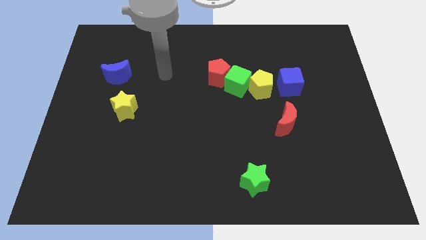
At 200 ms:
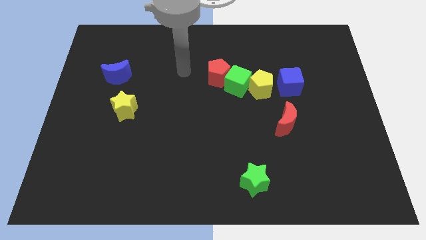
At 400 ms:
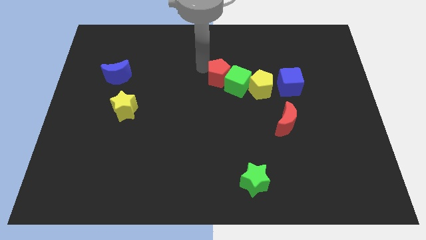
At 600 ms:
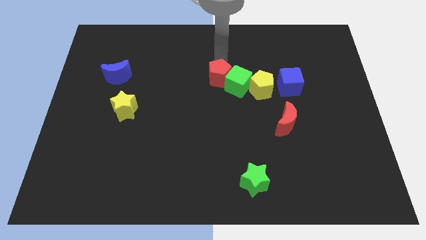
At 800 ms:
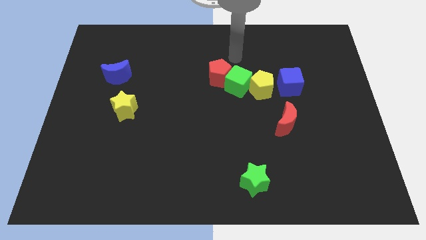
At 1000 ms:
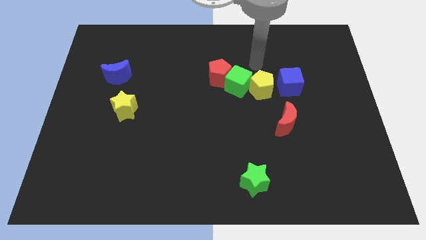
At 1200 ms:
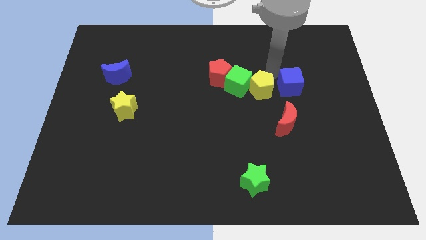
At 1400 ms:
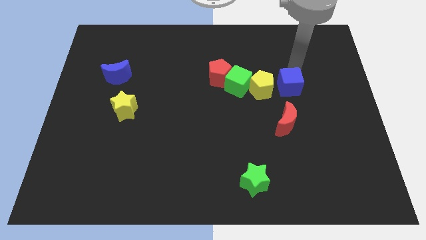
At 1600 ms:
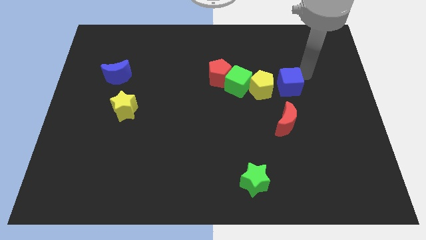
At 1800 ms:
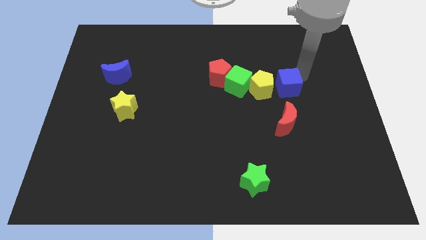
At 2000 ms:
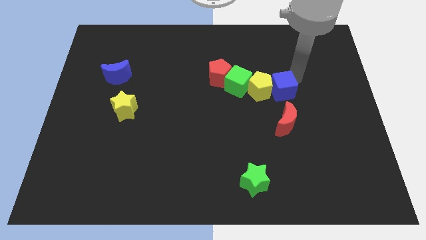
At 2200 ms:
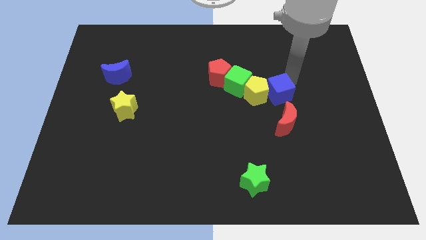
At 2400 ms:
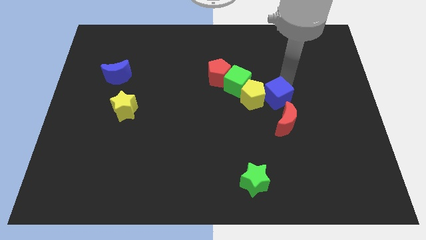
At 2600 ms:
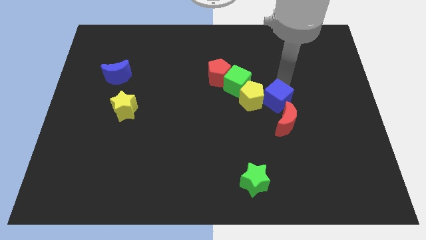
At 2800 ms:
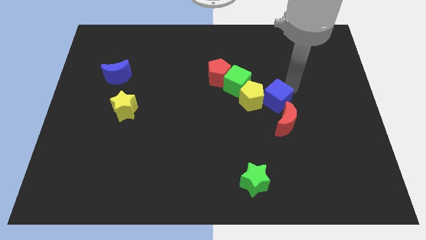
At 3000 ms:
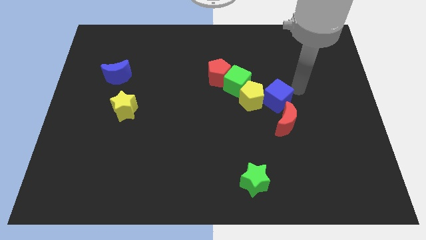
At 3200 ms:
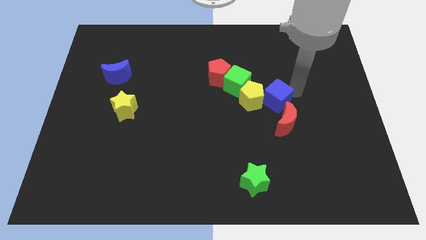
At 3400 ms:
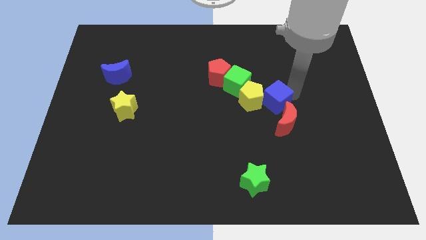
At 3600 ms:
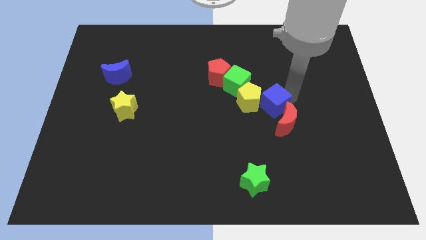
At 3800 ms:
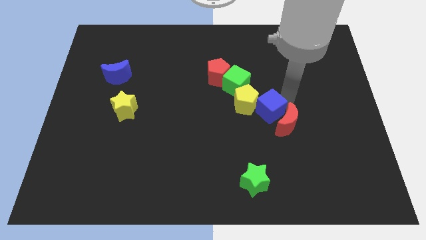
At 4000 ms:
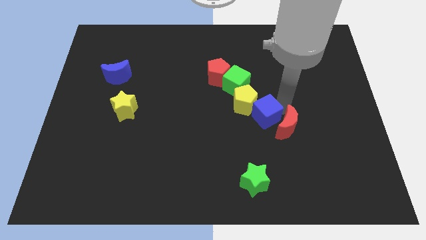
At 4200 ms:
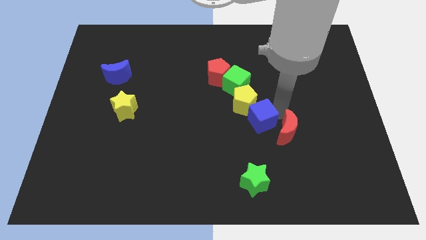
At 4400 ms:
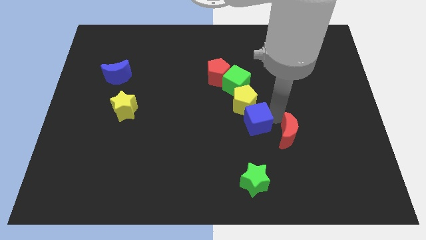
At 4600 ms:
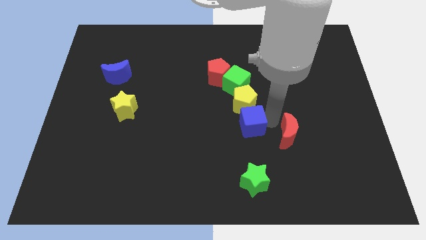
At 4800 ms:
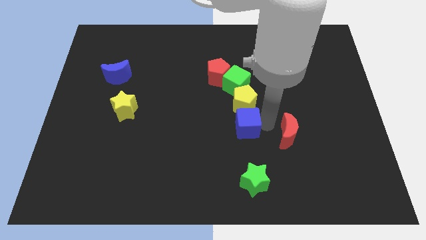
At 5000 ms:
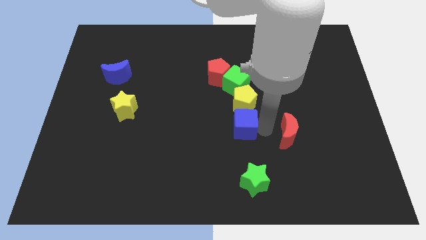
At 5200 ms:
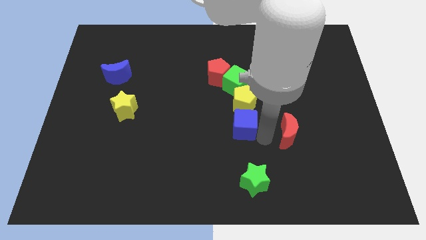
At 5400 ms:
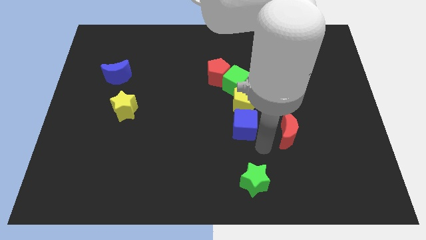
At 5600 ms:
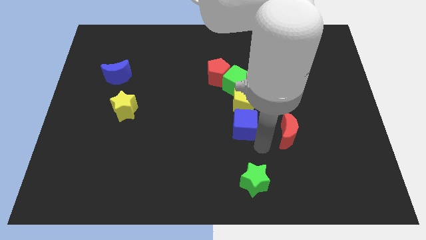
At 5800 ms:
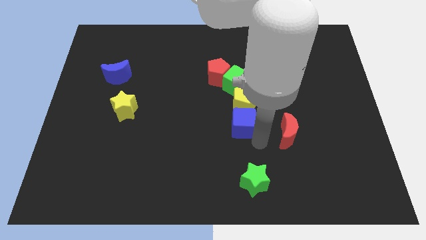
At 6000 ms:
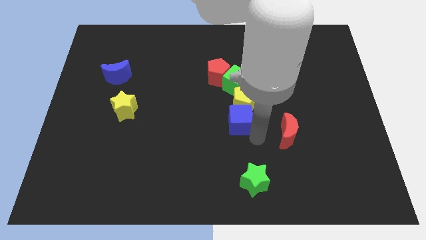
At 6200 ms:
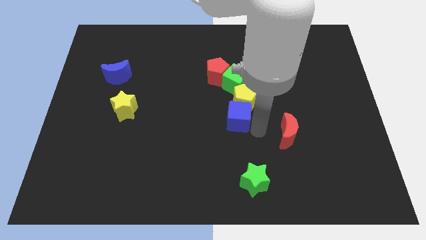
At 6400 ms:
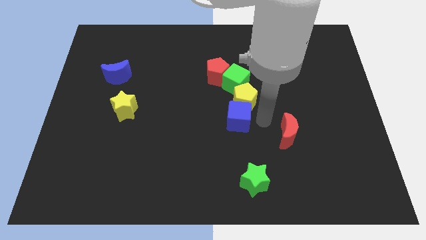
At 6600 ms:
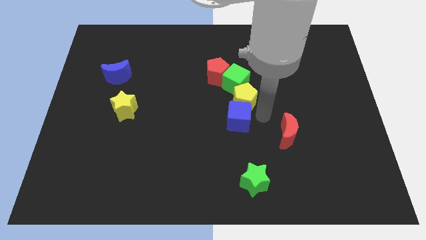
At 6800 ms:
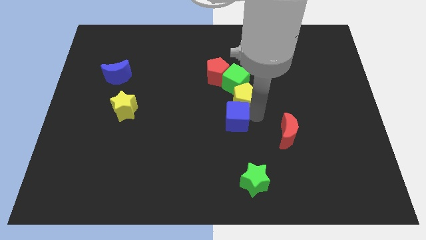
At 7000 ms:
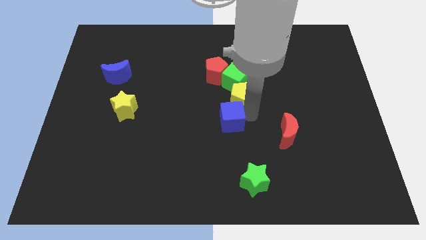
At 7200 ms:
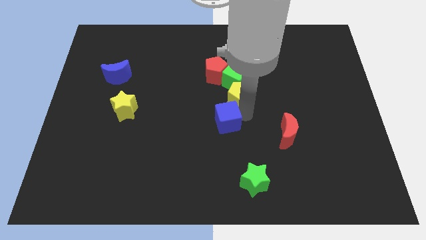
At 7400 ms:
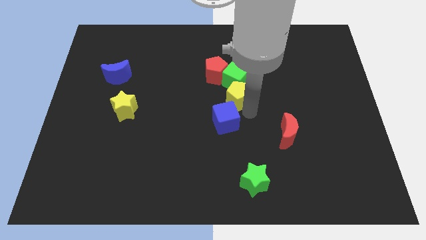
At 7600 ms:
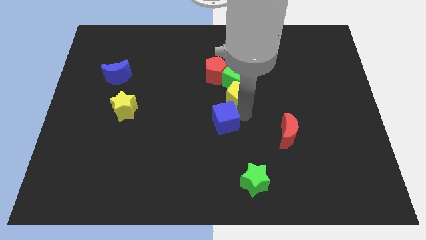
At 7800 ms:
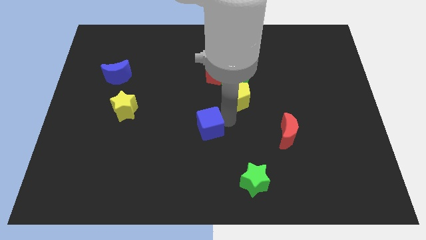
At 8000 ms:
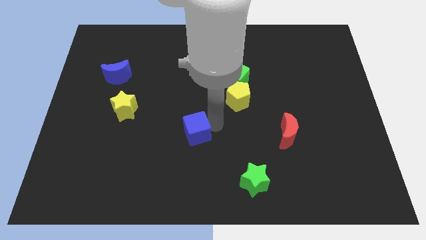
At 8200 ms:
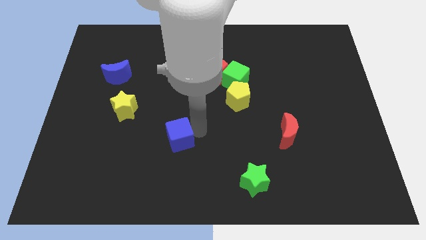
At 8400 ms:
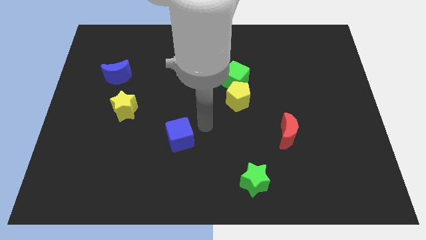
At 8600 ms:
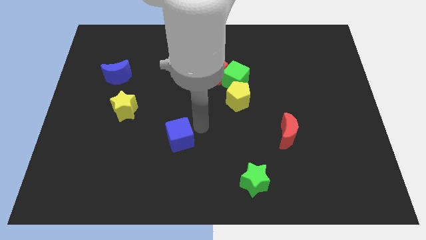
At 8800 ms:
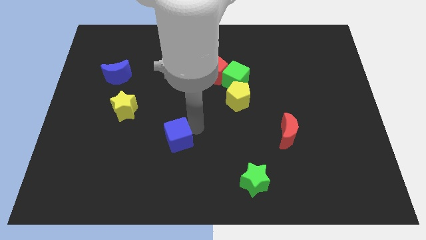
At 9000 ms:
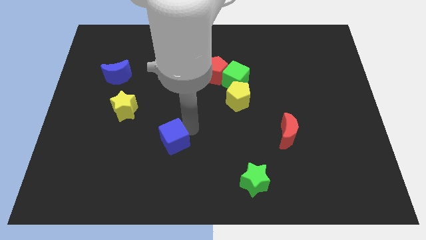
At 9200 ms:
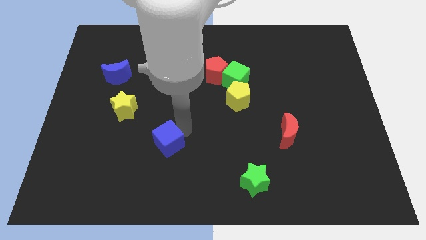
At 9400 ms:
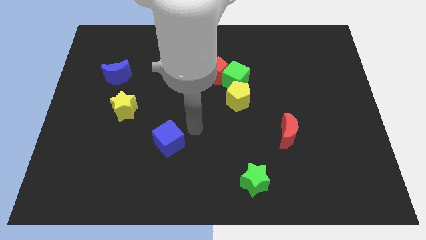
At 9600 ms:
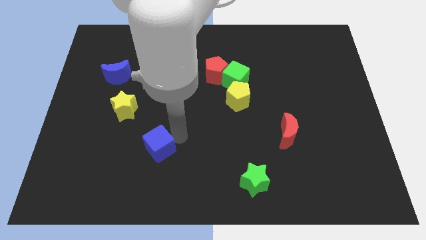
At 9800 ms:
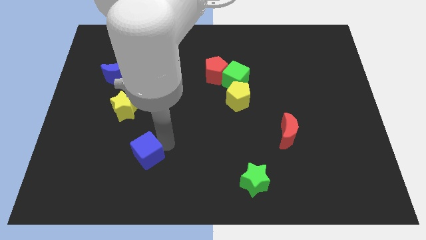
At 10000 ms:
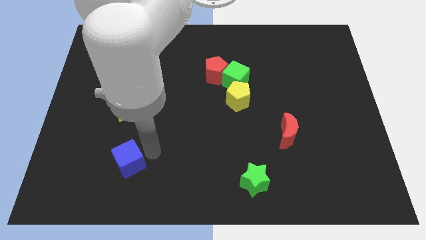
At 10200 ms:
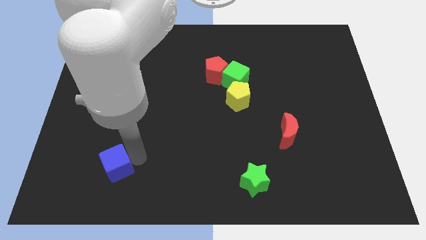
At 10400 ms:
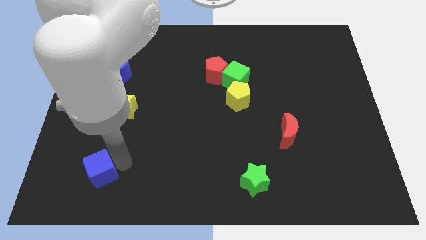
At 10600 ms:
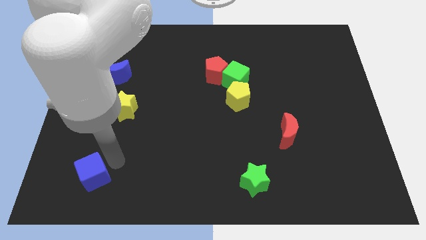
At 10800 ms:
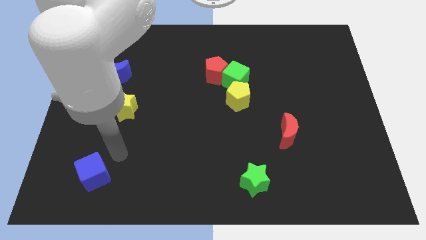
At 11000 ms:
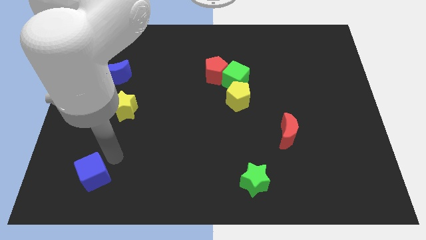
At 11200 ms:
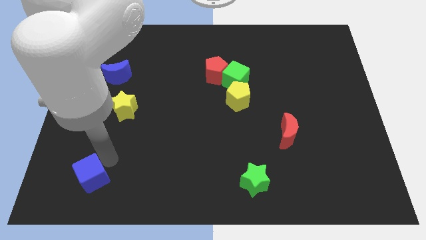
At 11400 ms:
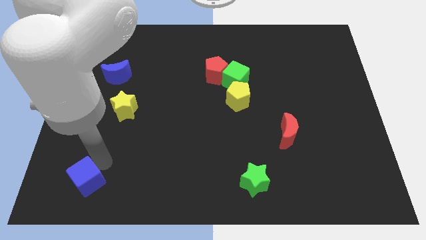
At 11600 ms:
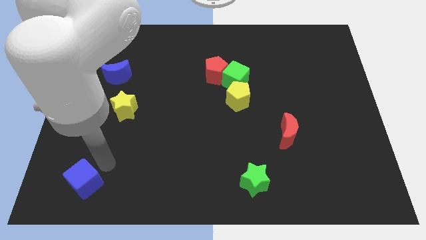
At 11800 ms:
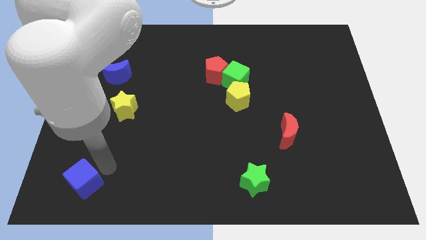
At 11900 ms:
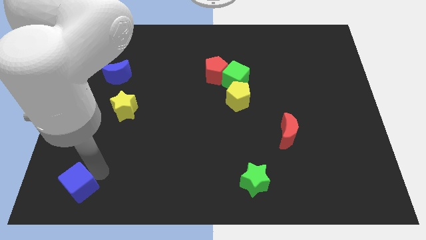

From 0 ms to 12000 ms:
push the blue cube to the lower left corner
